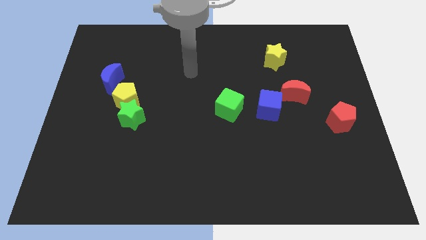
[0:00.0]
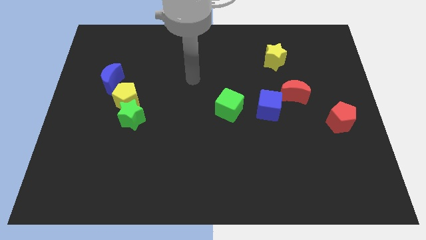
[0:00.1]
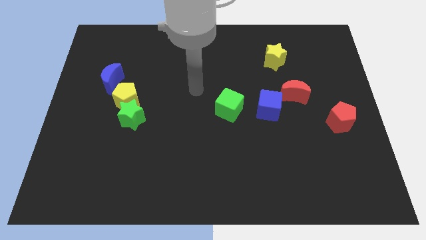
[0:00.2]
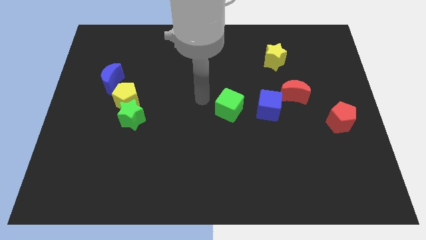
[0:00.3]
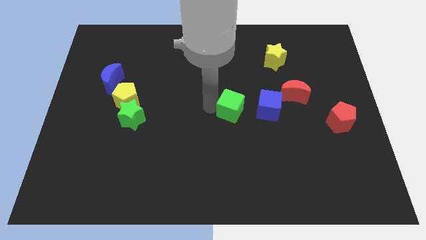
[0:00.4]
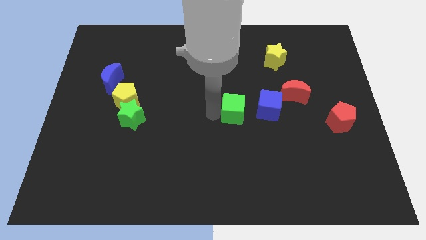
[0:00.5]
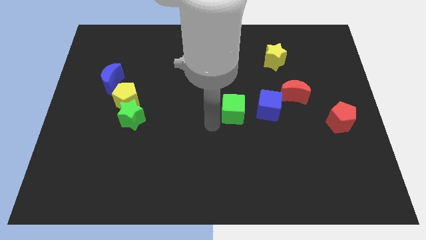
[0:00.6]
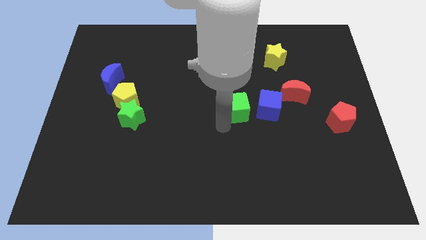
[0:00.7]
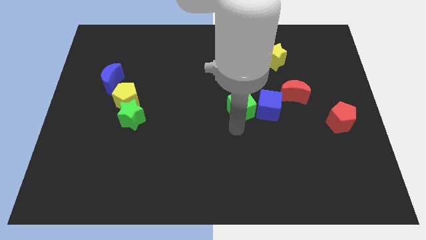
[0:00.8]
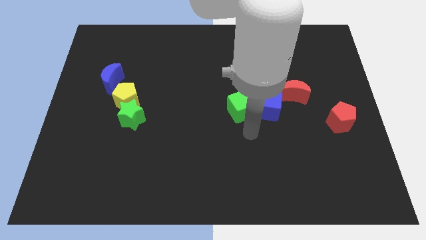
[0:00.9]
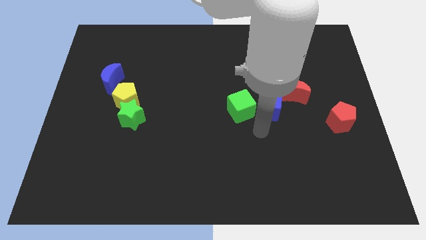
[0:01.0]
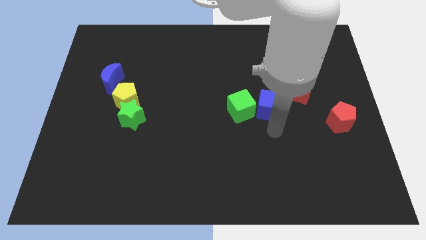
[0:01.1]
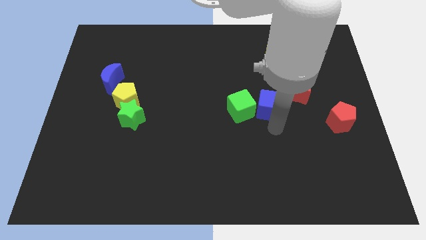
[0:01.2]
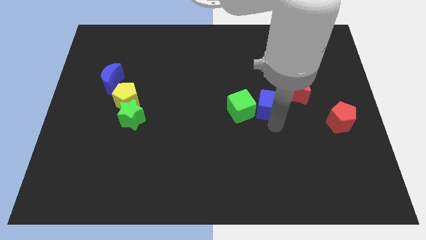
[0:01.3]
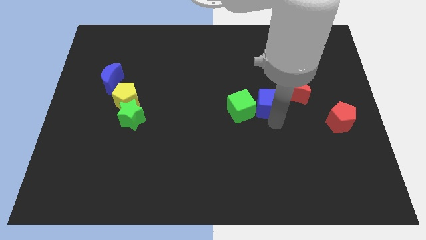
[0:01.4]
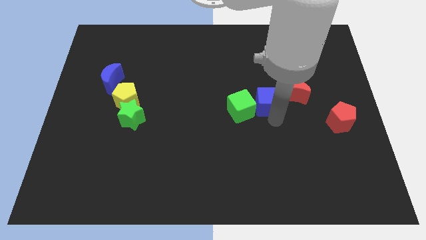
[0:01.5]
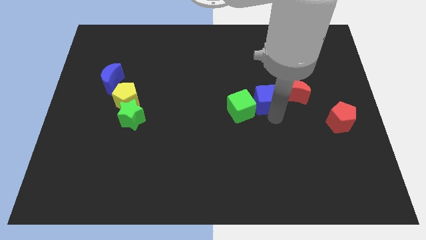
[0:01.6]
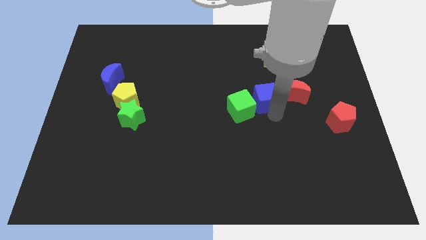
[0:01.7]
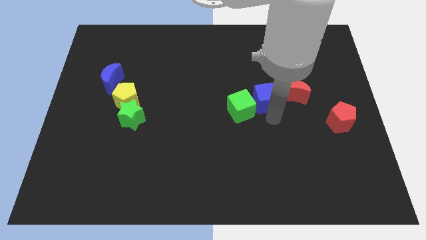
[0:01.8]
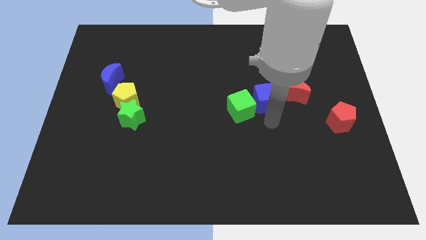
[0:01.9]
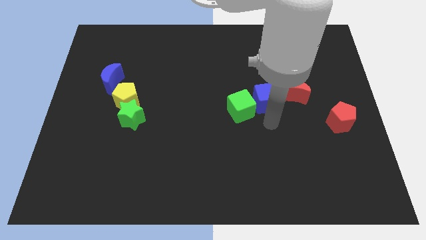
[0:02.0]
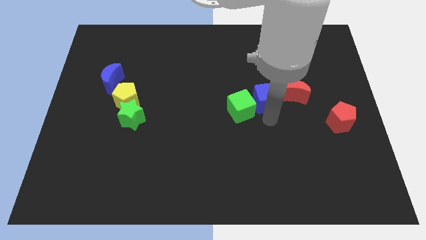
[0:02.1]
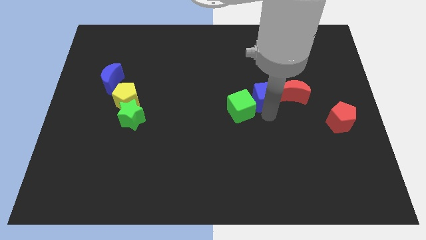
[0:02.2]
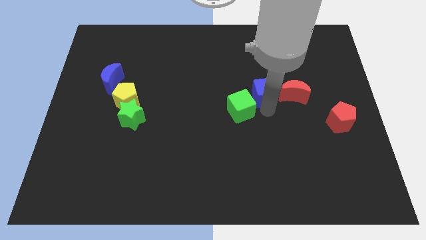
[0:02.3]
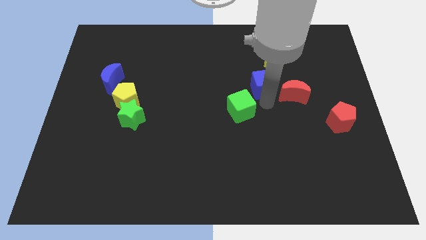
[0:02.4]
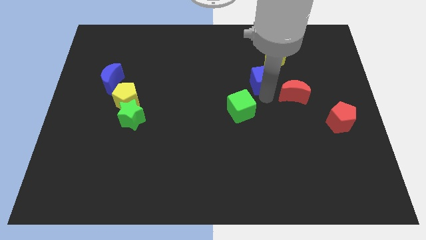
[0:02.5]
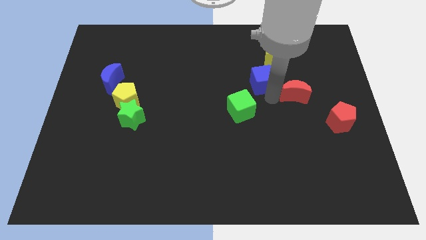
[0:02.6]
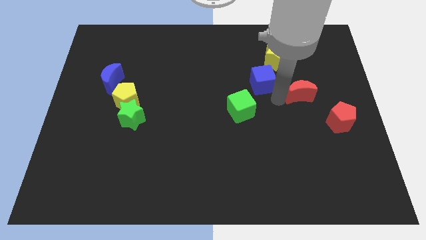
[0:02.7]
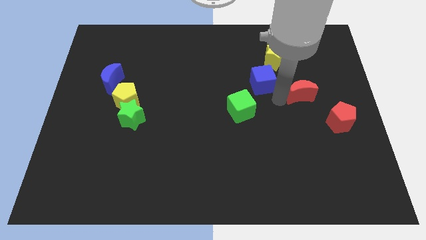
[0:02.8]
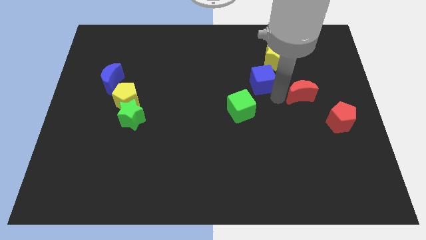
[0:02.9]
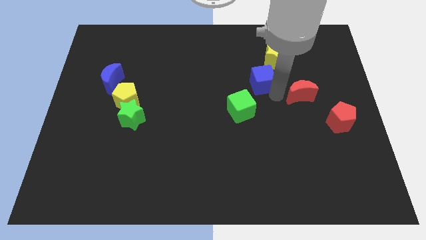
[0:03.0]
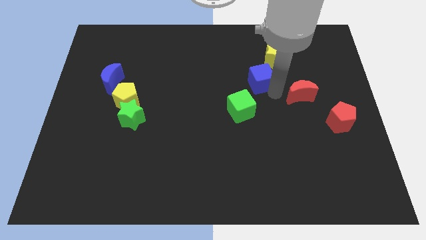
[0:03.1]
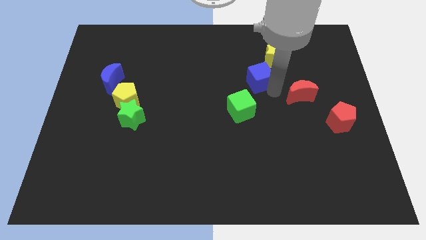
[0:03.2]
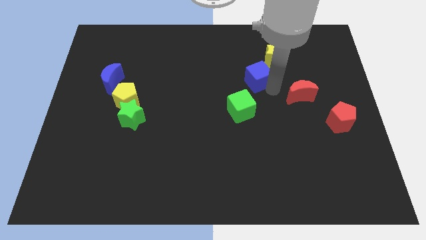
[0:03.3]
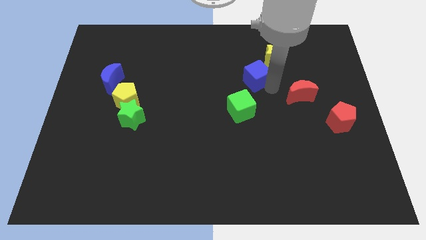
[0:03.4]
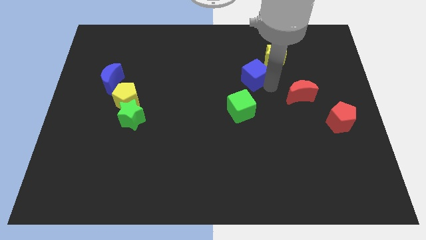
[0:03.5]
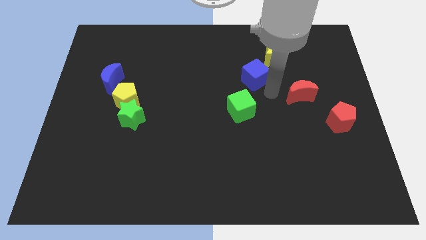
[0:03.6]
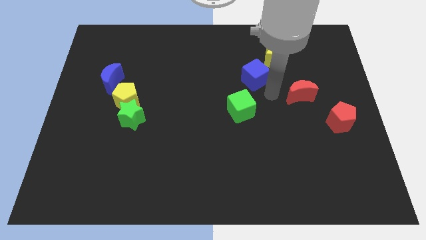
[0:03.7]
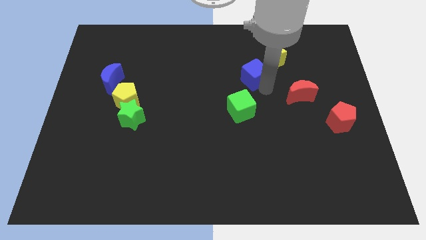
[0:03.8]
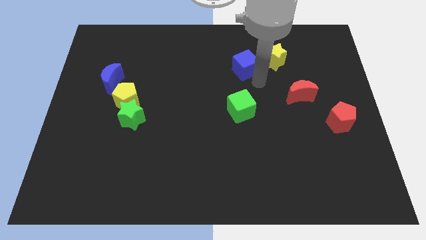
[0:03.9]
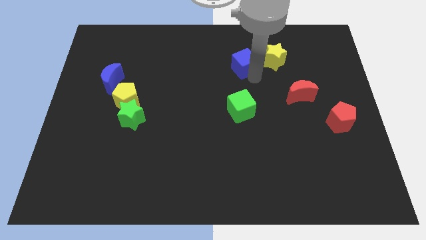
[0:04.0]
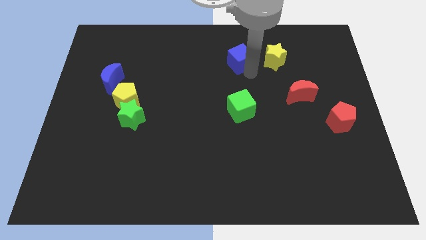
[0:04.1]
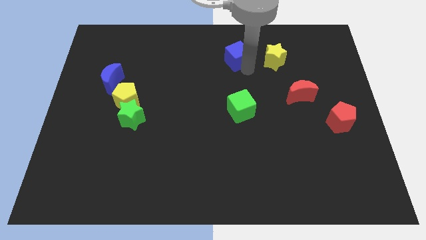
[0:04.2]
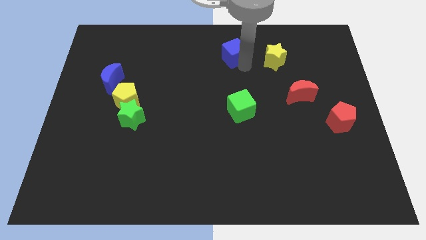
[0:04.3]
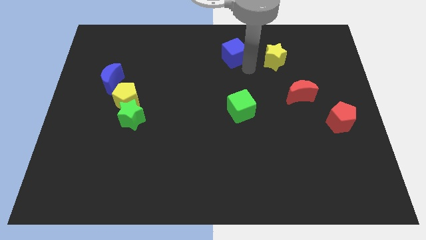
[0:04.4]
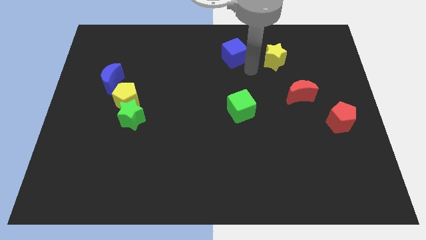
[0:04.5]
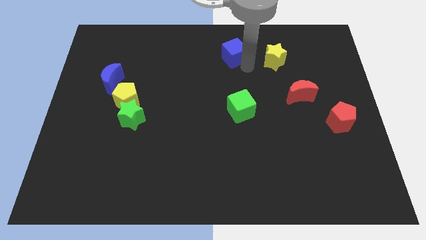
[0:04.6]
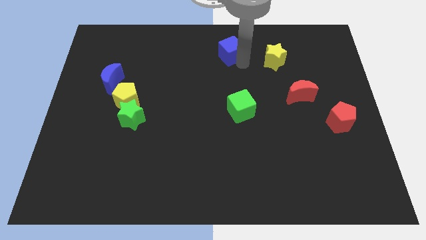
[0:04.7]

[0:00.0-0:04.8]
slide the blue cube to the top

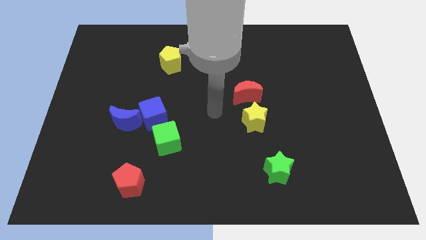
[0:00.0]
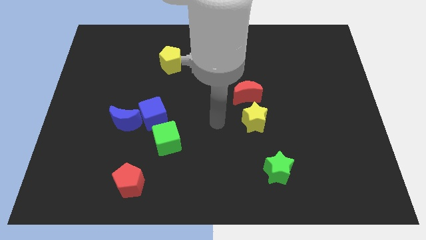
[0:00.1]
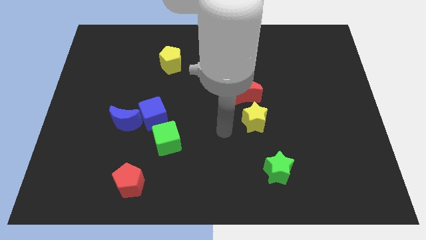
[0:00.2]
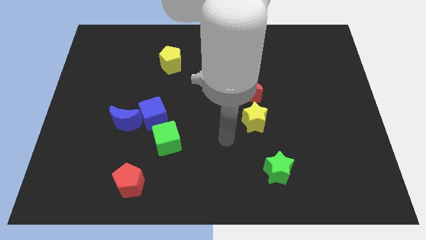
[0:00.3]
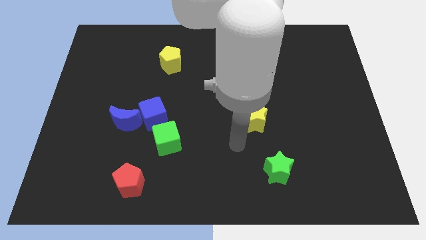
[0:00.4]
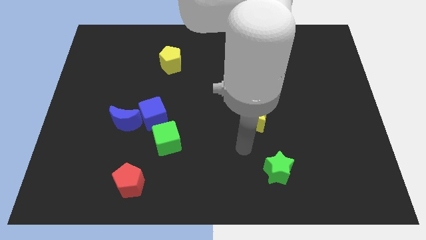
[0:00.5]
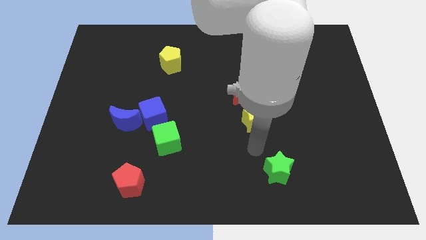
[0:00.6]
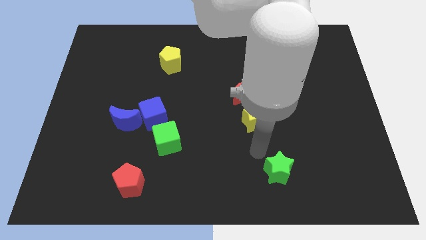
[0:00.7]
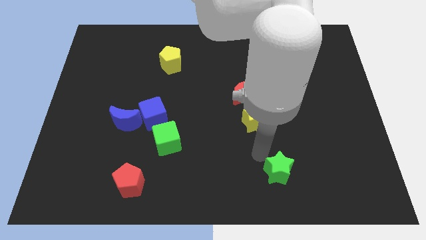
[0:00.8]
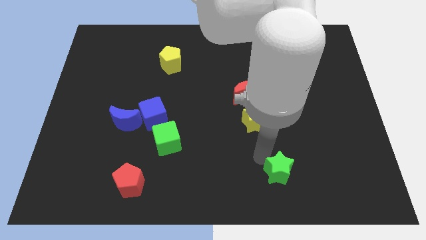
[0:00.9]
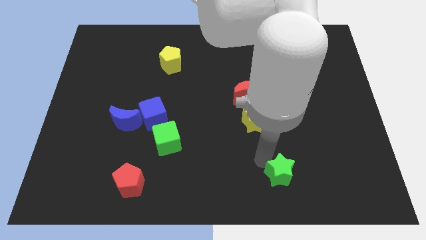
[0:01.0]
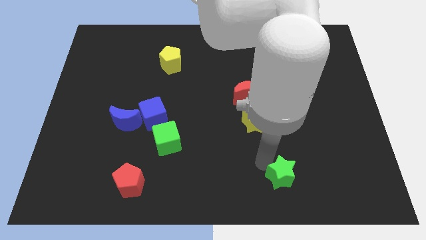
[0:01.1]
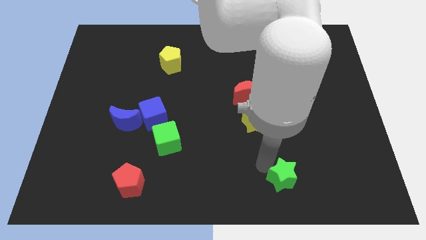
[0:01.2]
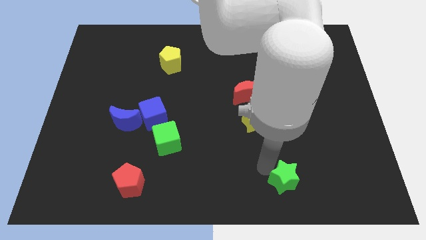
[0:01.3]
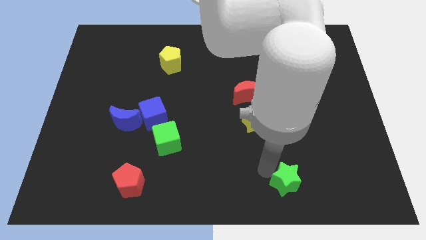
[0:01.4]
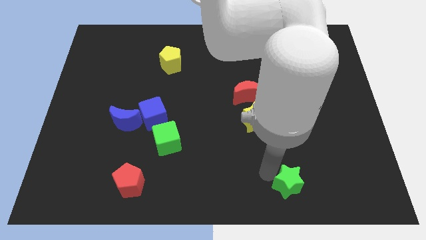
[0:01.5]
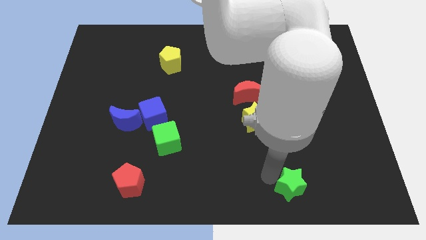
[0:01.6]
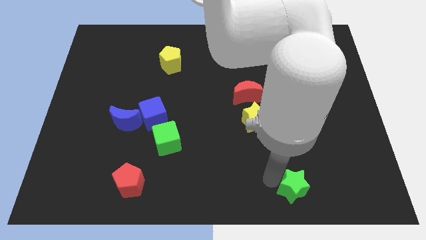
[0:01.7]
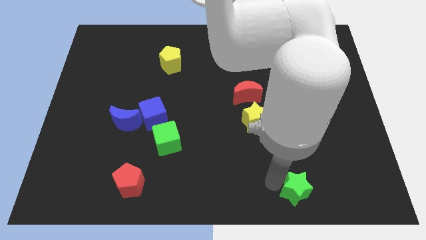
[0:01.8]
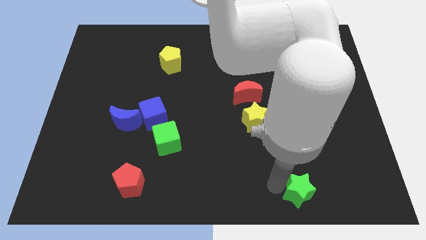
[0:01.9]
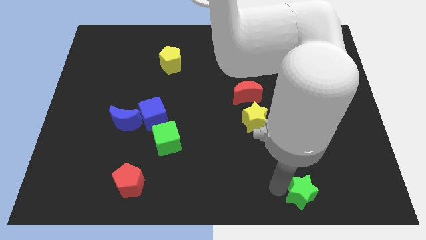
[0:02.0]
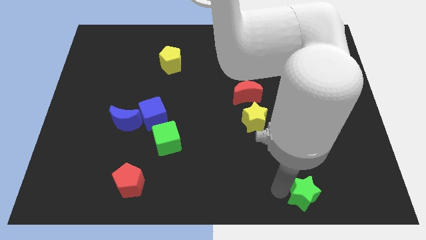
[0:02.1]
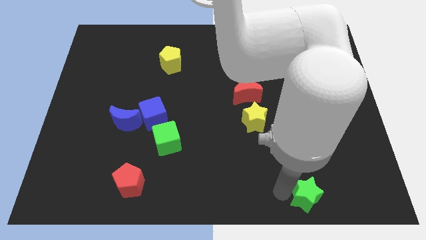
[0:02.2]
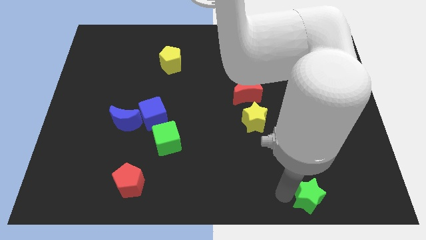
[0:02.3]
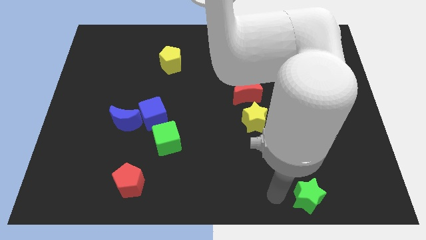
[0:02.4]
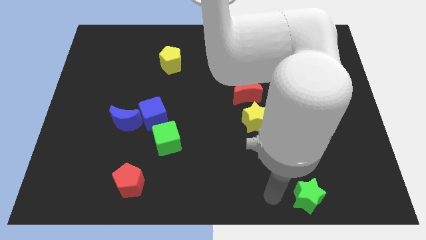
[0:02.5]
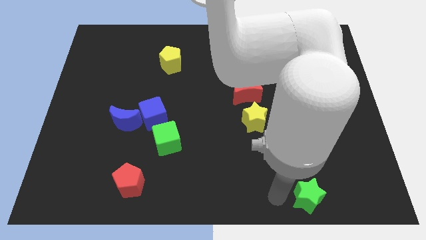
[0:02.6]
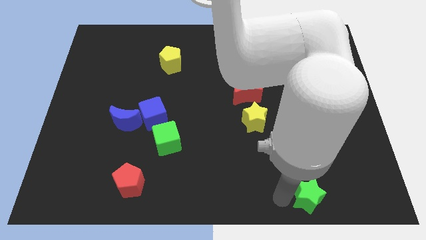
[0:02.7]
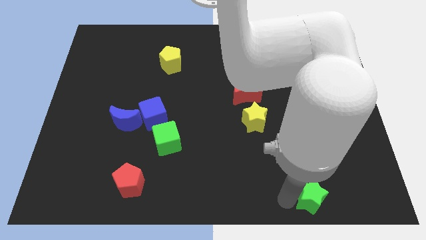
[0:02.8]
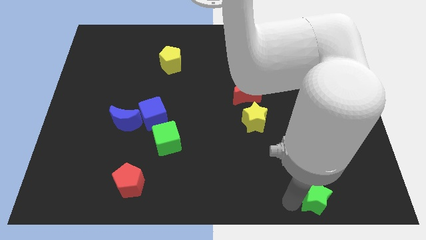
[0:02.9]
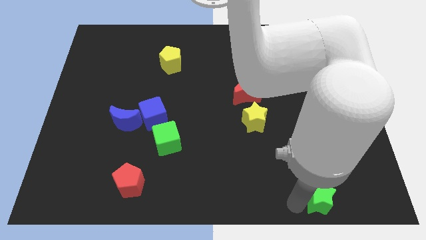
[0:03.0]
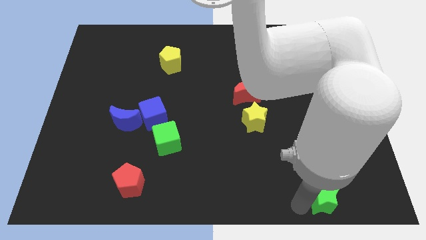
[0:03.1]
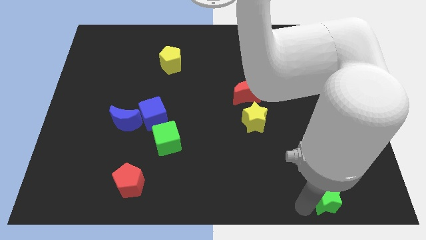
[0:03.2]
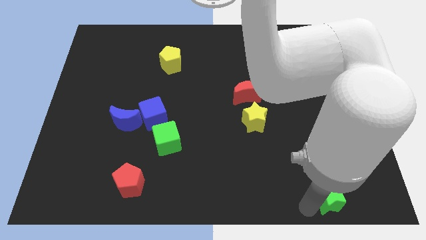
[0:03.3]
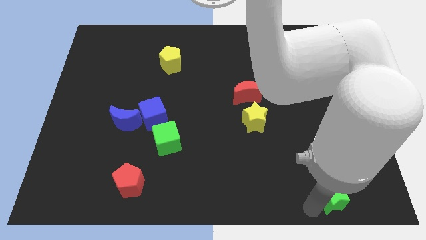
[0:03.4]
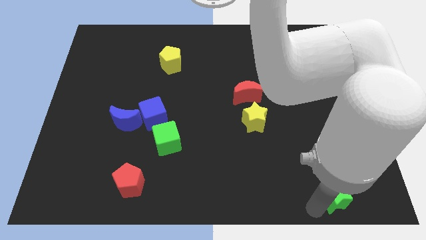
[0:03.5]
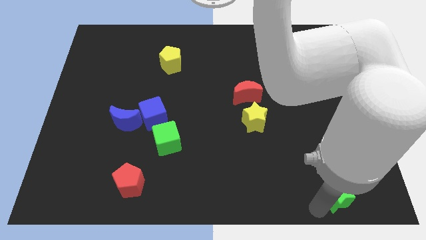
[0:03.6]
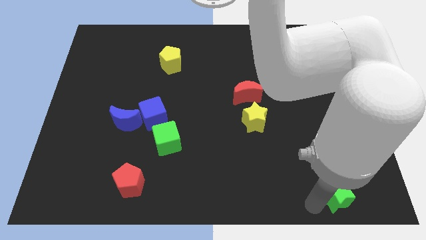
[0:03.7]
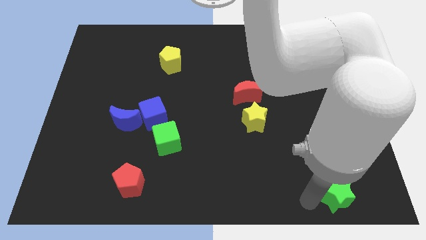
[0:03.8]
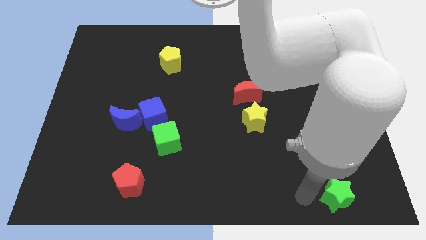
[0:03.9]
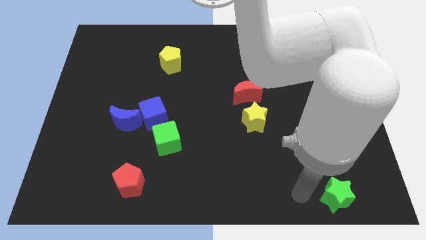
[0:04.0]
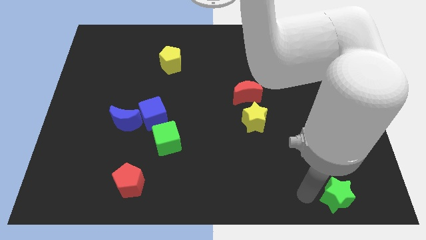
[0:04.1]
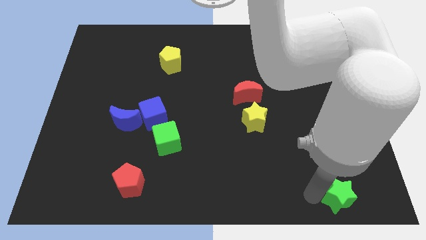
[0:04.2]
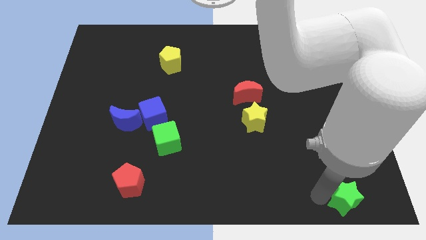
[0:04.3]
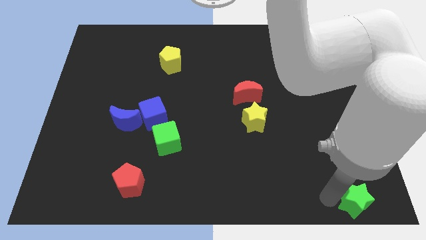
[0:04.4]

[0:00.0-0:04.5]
move the green star to the lower right corner
